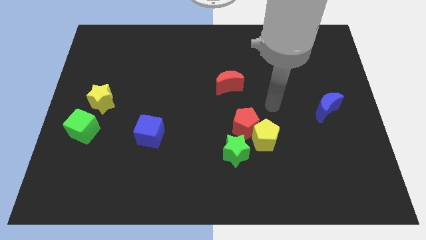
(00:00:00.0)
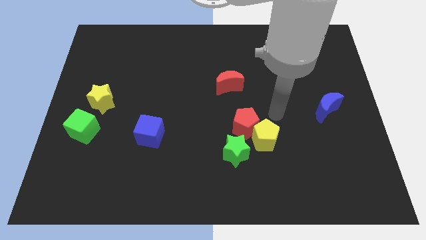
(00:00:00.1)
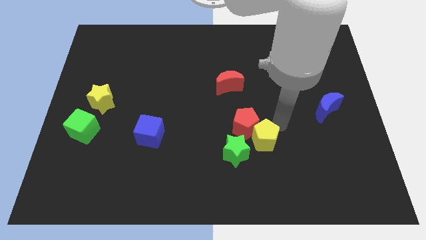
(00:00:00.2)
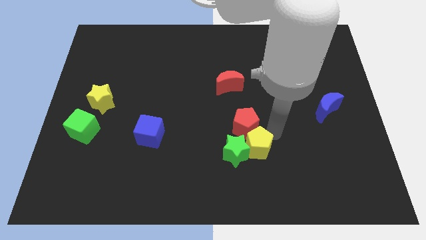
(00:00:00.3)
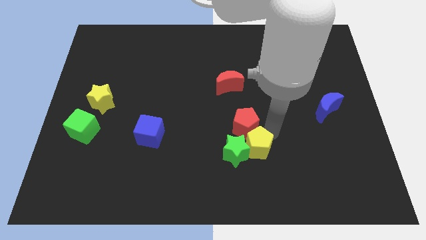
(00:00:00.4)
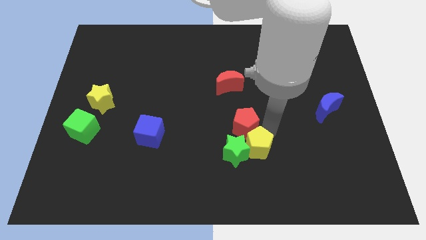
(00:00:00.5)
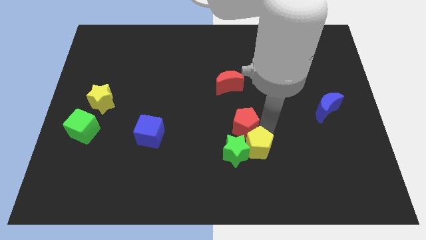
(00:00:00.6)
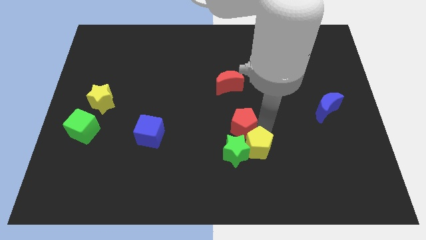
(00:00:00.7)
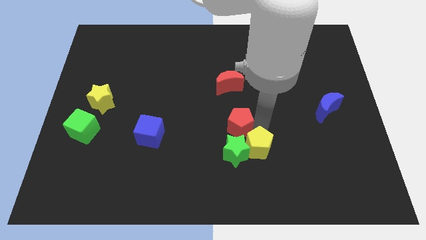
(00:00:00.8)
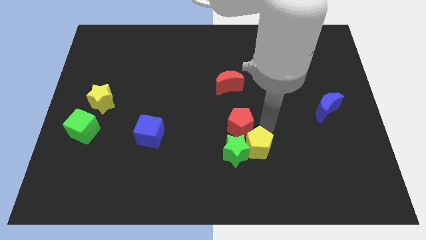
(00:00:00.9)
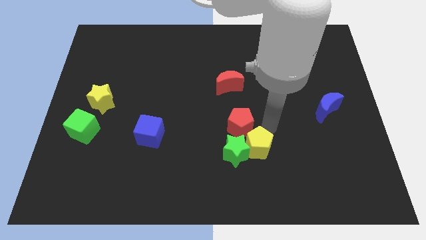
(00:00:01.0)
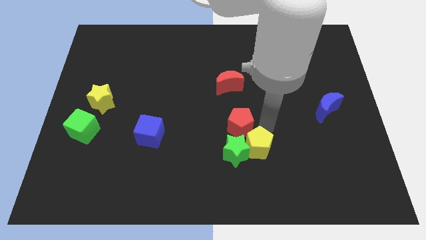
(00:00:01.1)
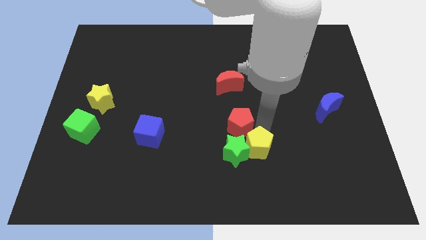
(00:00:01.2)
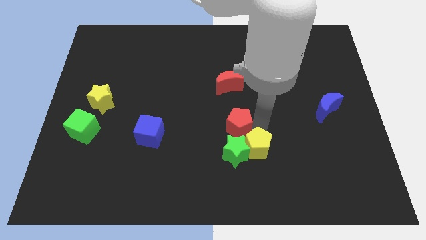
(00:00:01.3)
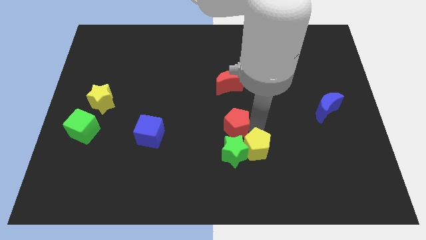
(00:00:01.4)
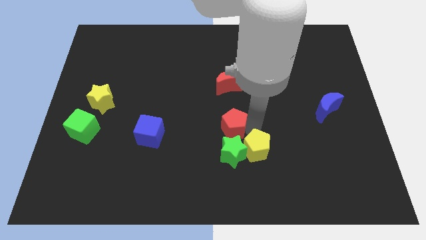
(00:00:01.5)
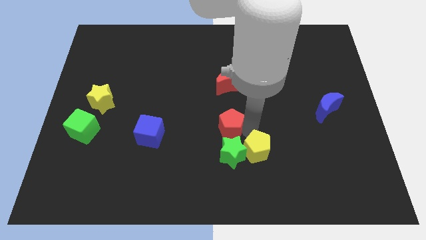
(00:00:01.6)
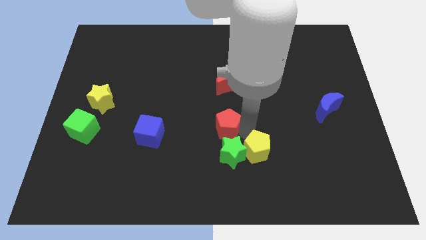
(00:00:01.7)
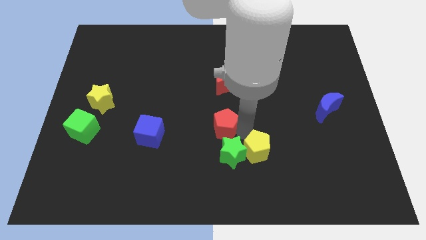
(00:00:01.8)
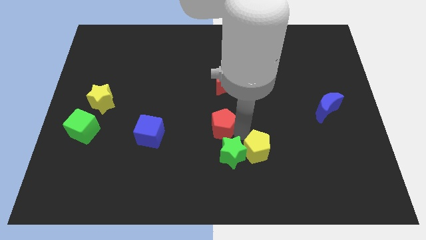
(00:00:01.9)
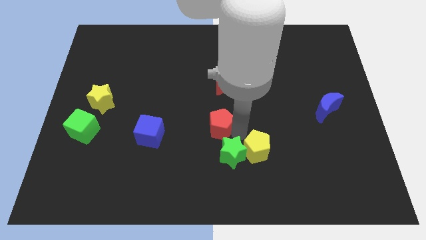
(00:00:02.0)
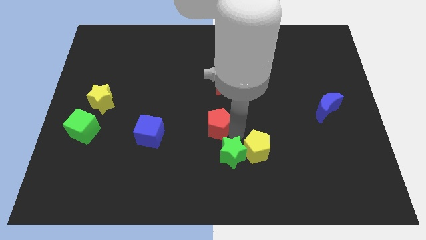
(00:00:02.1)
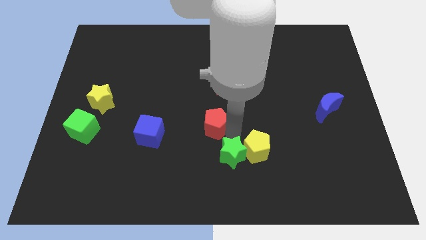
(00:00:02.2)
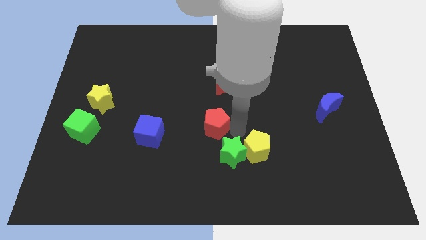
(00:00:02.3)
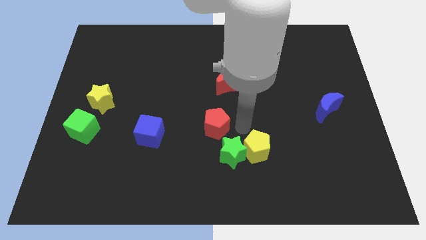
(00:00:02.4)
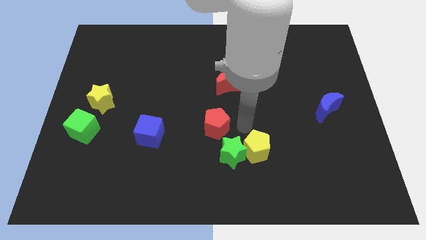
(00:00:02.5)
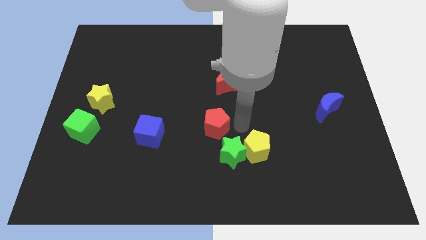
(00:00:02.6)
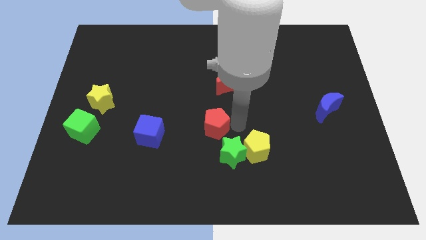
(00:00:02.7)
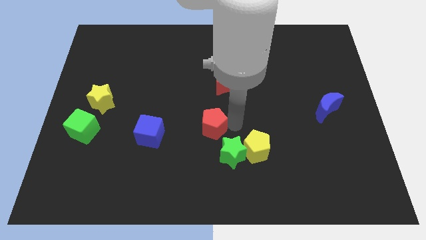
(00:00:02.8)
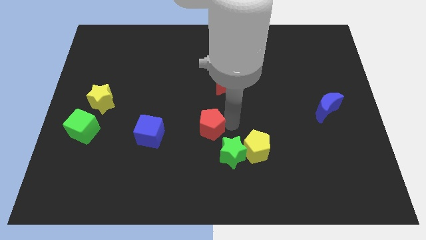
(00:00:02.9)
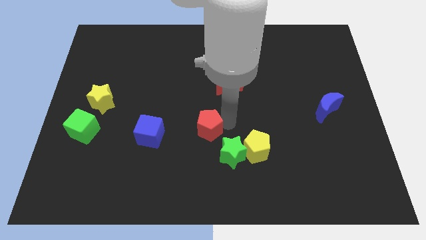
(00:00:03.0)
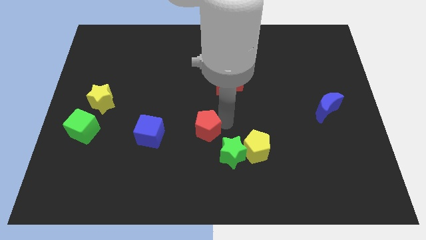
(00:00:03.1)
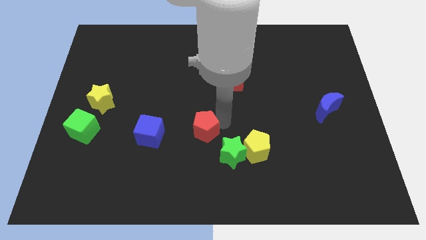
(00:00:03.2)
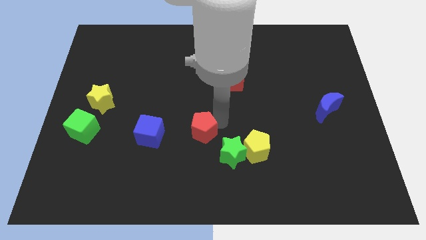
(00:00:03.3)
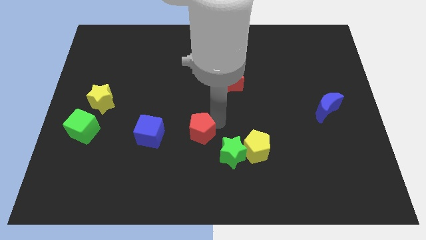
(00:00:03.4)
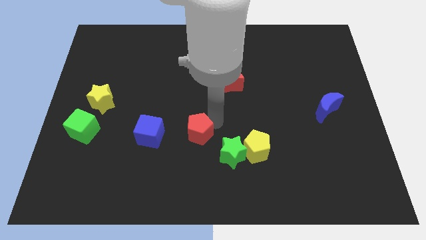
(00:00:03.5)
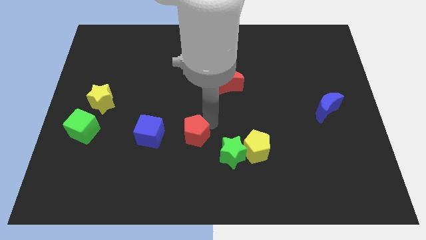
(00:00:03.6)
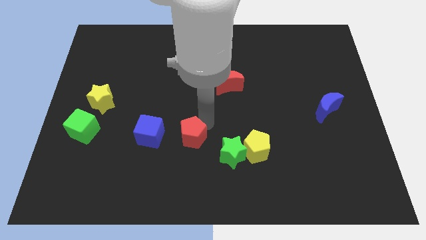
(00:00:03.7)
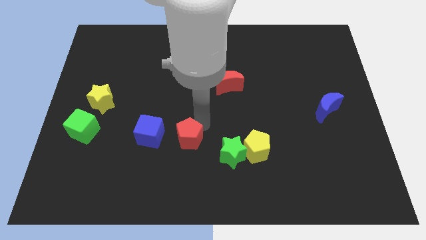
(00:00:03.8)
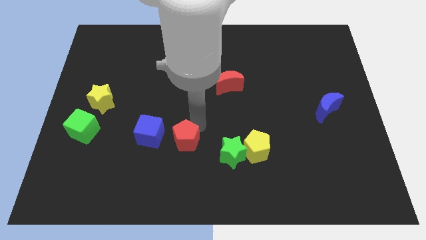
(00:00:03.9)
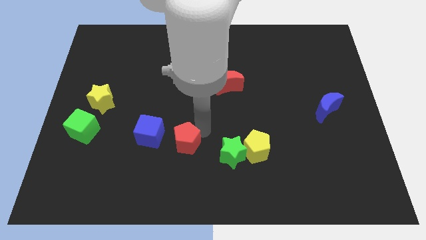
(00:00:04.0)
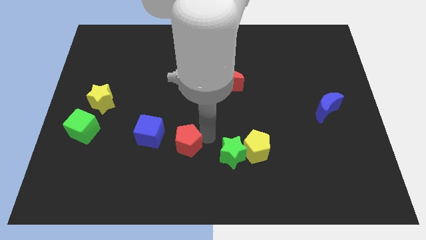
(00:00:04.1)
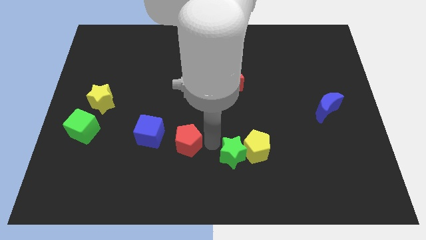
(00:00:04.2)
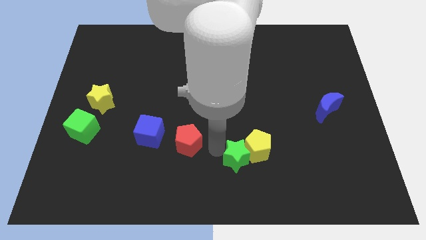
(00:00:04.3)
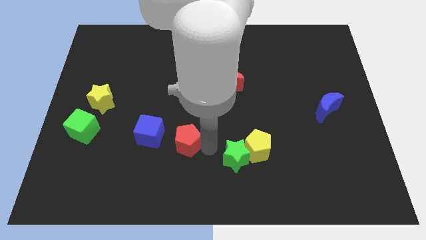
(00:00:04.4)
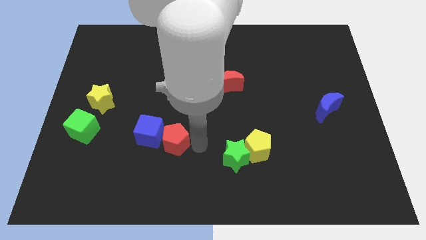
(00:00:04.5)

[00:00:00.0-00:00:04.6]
slide the red pentagon to the blue cube

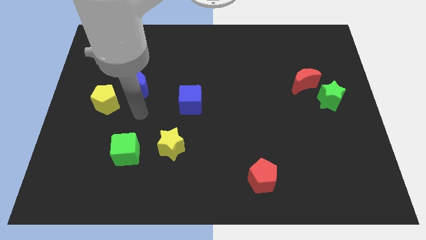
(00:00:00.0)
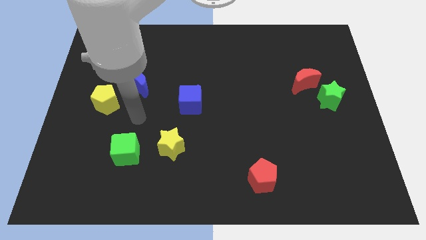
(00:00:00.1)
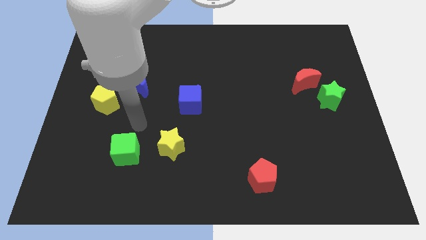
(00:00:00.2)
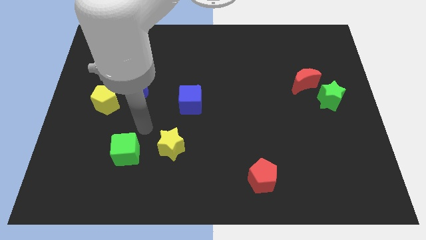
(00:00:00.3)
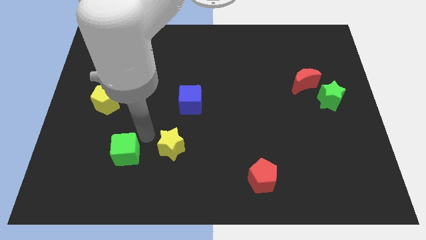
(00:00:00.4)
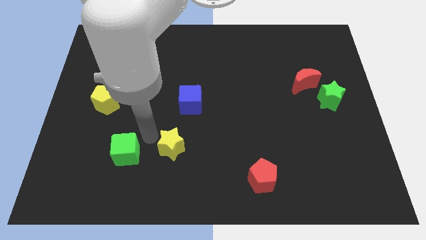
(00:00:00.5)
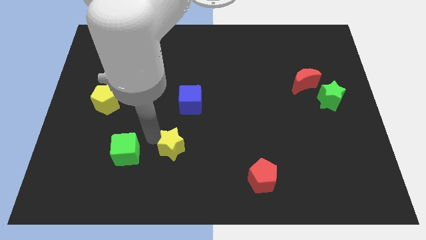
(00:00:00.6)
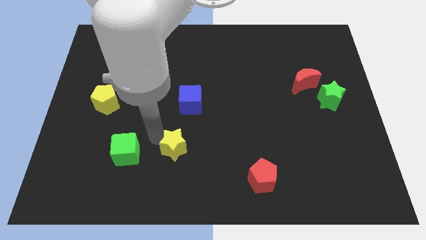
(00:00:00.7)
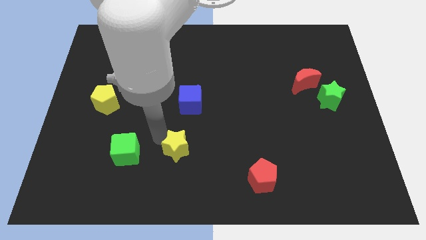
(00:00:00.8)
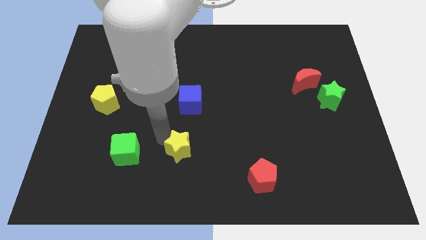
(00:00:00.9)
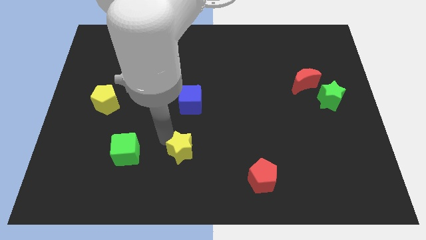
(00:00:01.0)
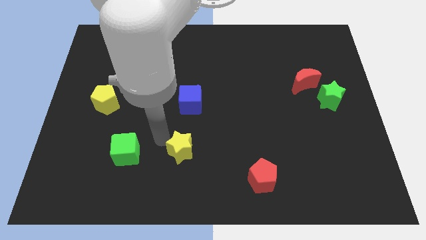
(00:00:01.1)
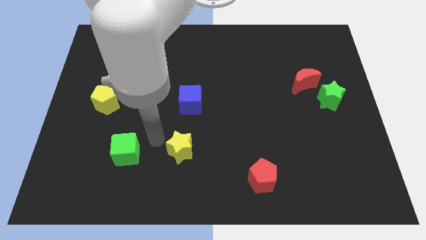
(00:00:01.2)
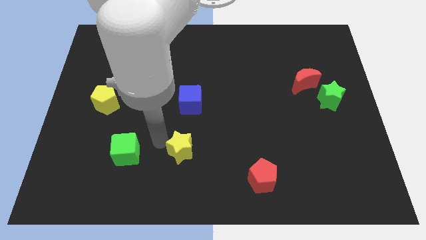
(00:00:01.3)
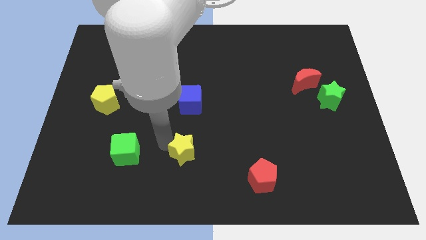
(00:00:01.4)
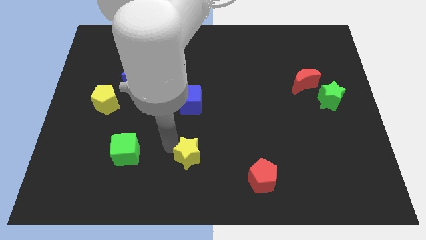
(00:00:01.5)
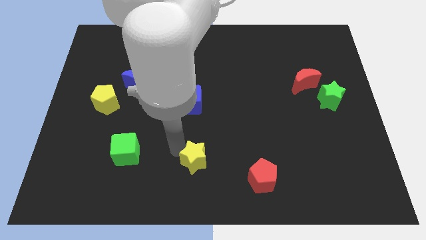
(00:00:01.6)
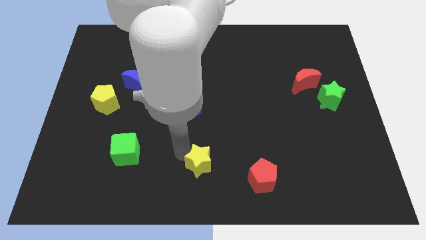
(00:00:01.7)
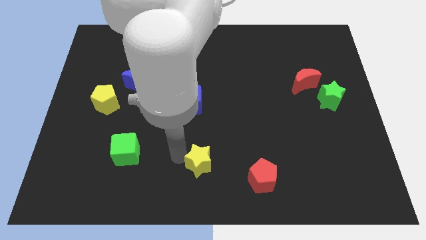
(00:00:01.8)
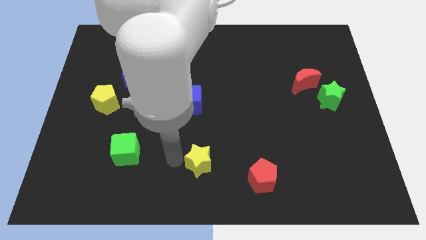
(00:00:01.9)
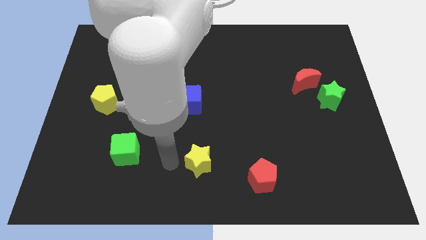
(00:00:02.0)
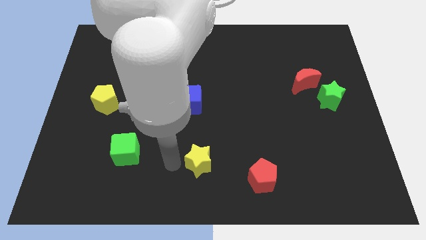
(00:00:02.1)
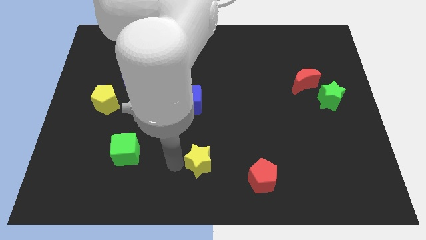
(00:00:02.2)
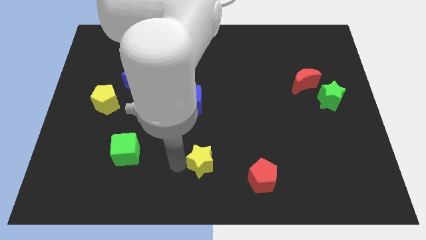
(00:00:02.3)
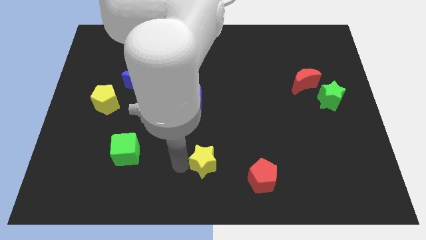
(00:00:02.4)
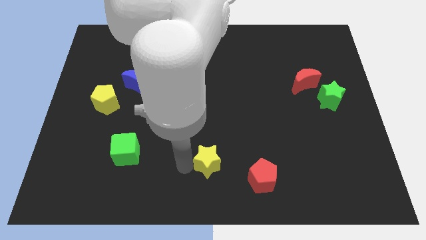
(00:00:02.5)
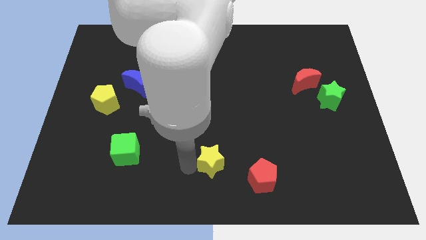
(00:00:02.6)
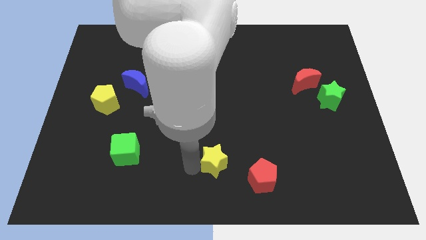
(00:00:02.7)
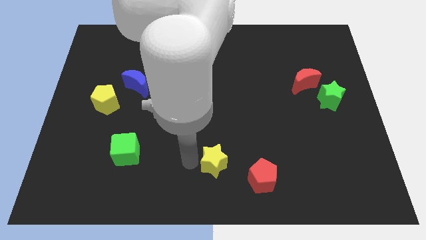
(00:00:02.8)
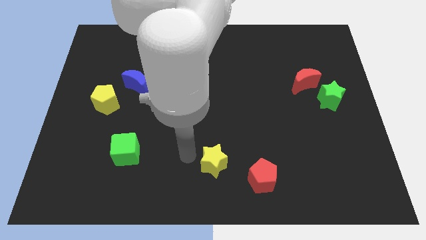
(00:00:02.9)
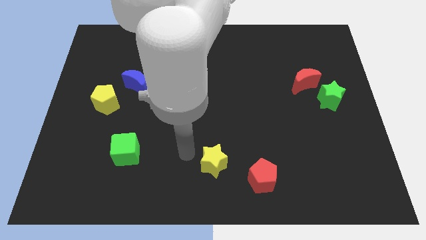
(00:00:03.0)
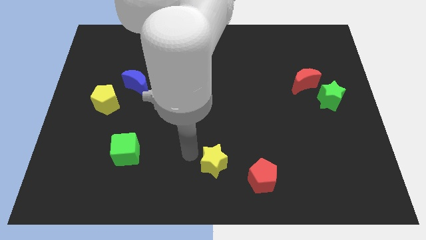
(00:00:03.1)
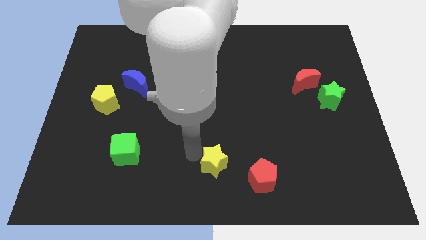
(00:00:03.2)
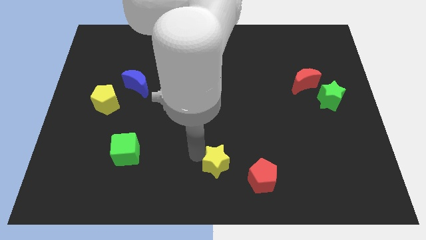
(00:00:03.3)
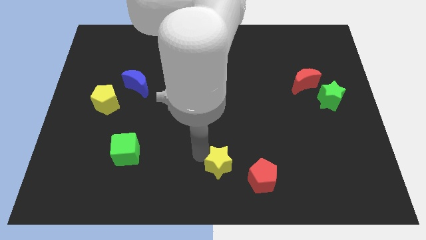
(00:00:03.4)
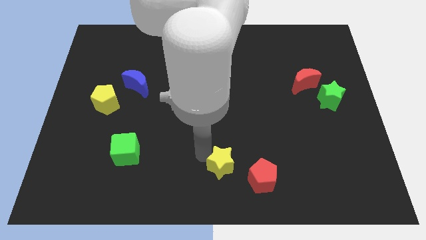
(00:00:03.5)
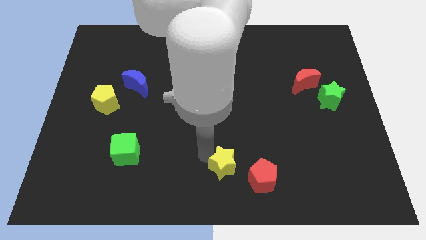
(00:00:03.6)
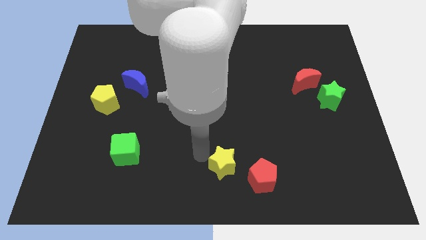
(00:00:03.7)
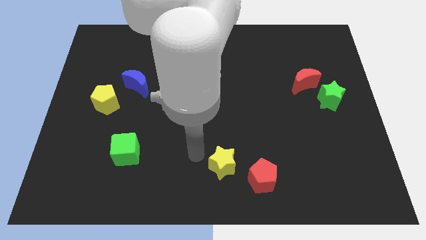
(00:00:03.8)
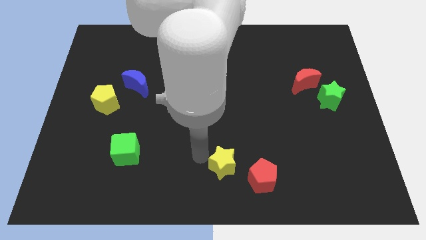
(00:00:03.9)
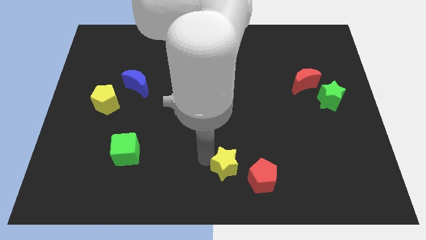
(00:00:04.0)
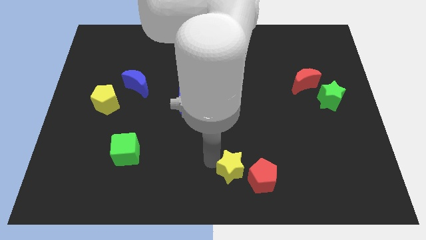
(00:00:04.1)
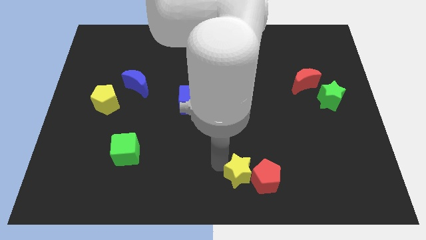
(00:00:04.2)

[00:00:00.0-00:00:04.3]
move the yellow star next to the red pentagon
